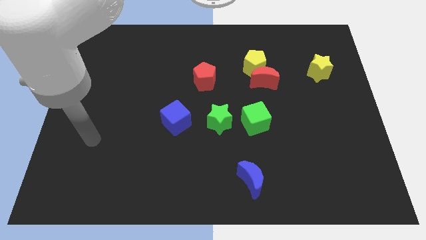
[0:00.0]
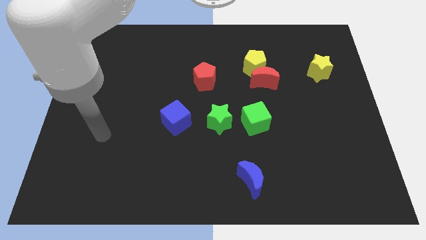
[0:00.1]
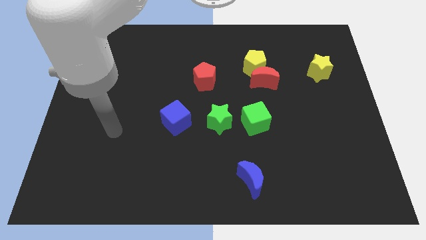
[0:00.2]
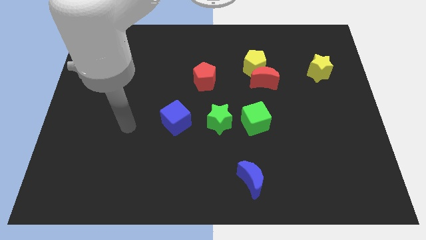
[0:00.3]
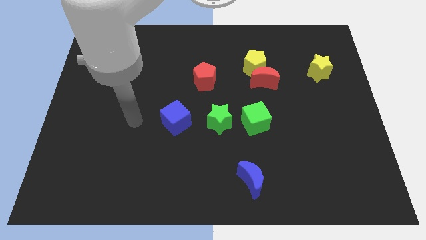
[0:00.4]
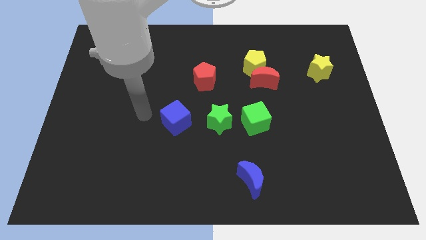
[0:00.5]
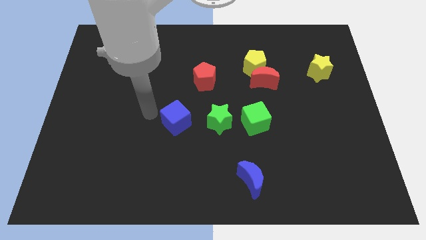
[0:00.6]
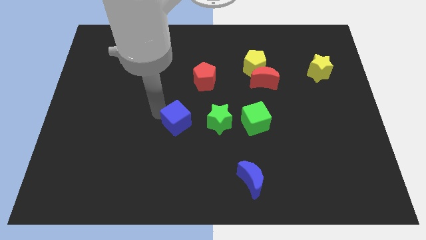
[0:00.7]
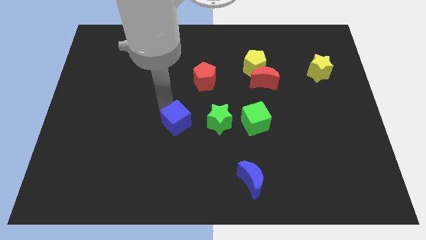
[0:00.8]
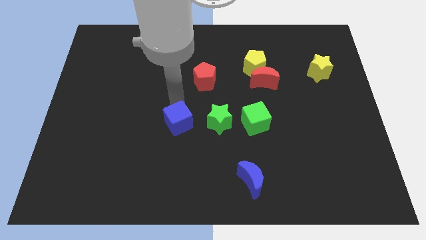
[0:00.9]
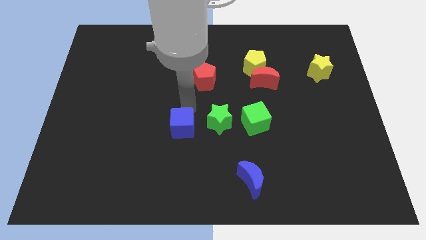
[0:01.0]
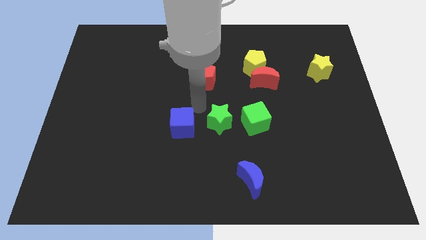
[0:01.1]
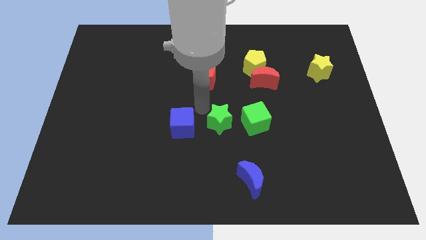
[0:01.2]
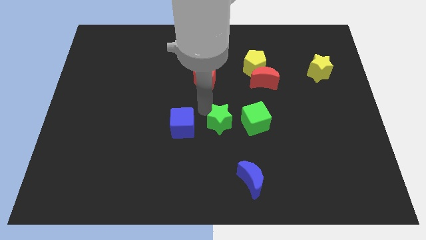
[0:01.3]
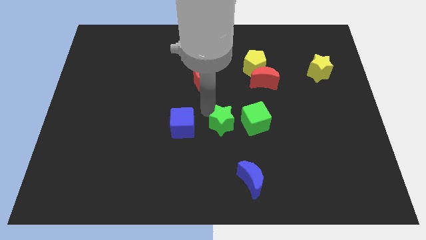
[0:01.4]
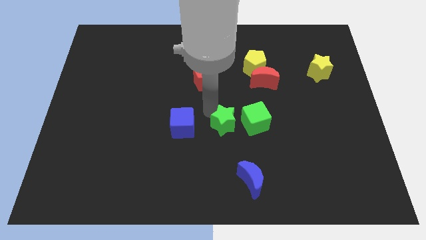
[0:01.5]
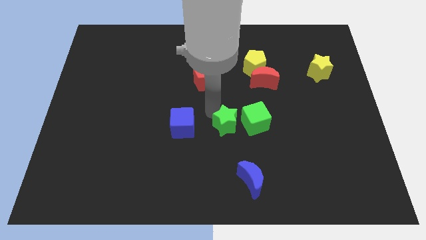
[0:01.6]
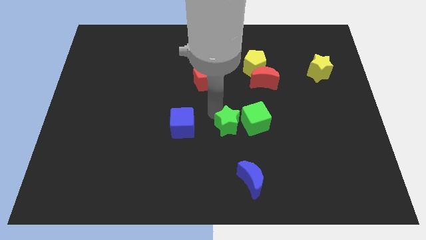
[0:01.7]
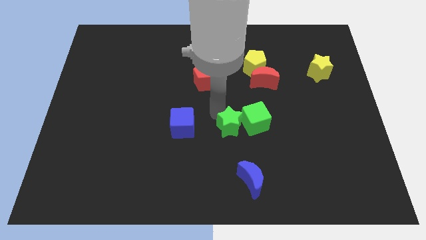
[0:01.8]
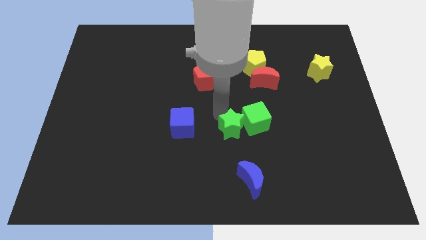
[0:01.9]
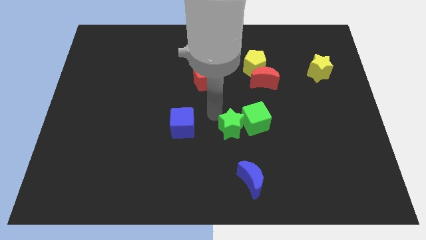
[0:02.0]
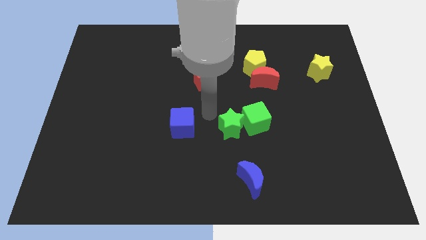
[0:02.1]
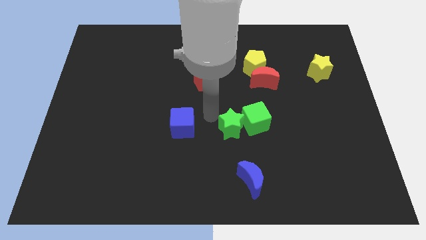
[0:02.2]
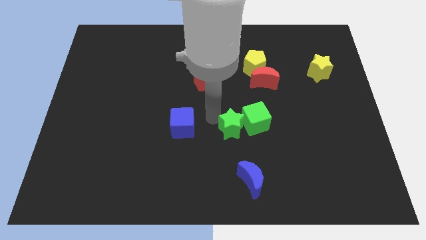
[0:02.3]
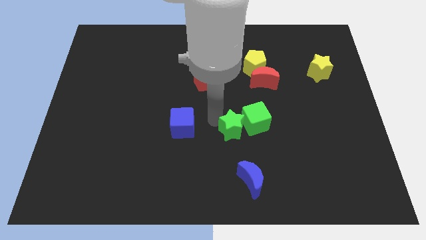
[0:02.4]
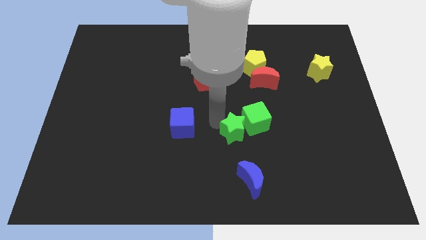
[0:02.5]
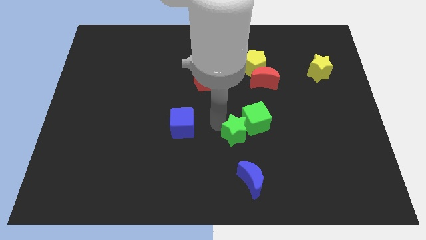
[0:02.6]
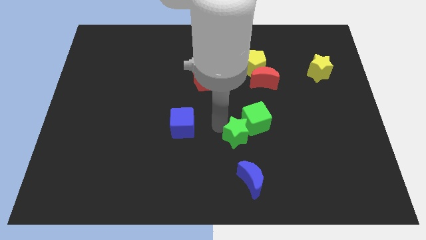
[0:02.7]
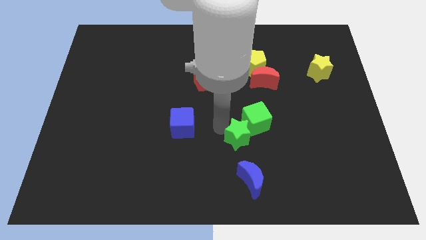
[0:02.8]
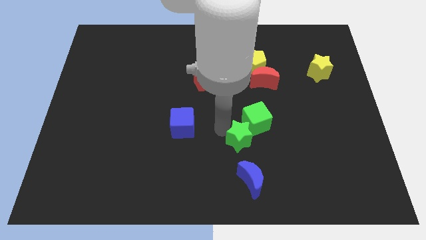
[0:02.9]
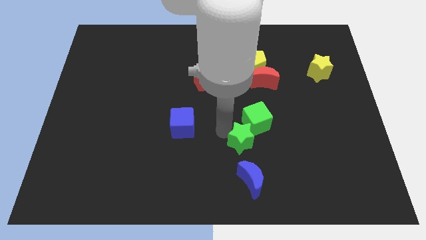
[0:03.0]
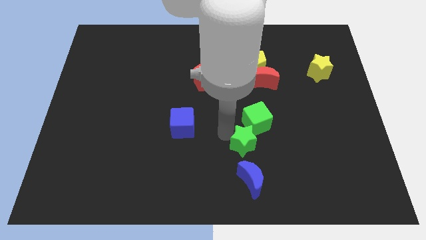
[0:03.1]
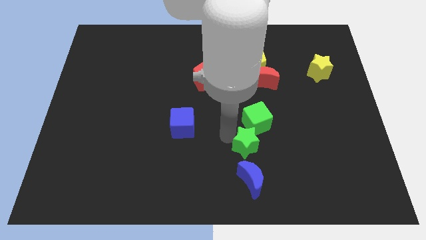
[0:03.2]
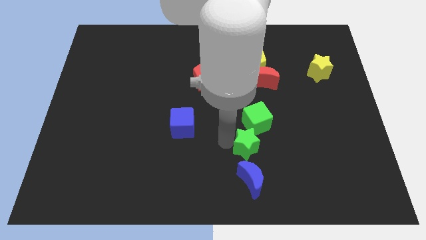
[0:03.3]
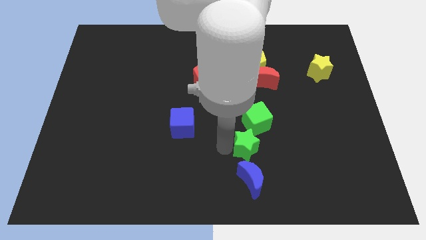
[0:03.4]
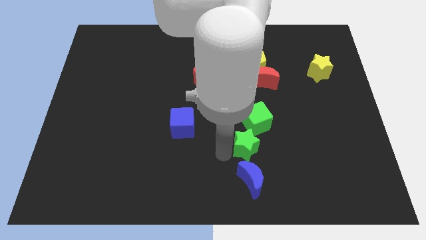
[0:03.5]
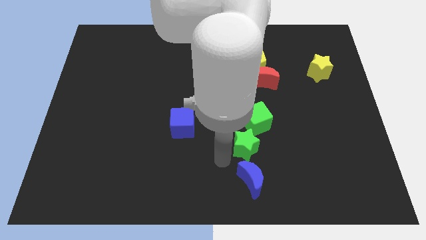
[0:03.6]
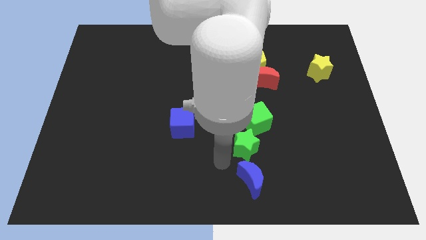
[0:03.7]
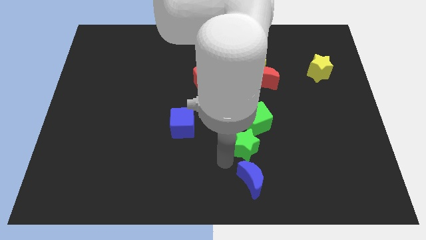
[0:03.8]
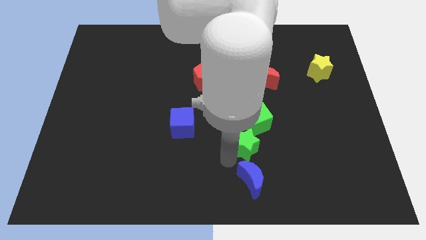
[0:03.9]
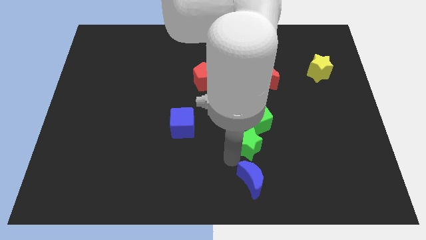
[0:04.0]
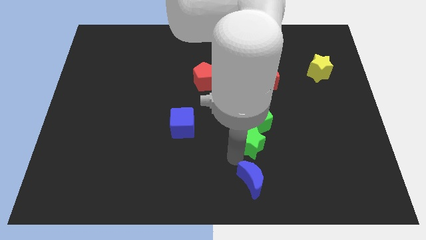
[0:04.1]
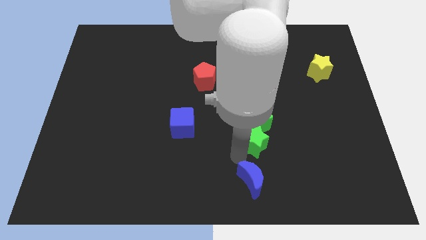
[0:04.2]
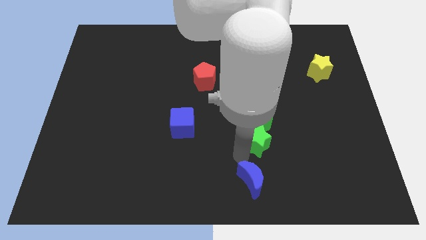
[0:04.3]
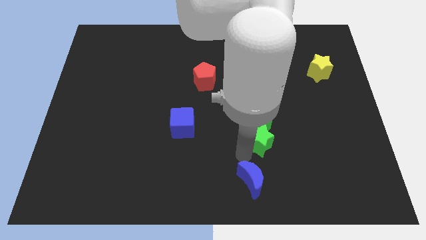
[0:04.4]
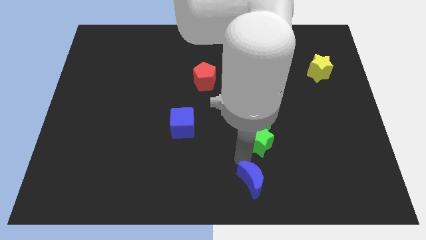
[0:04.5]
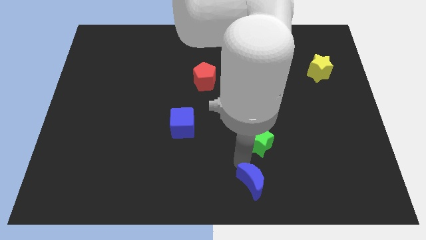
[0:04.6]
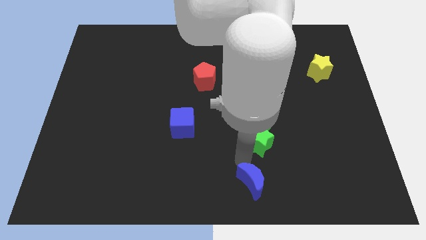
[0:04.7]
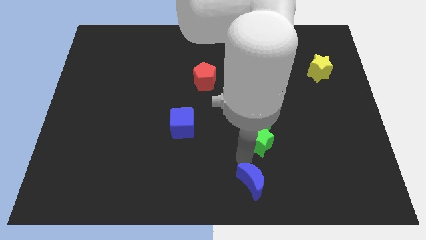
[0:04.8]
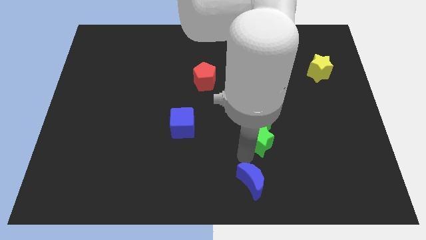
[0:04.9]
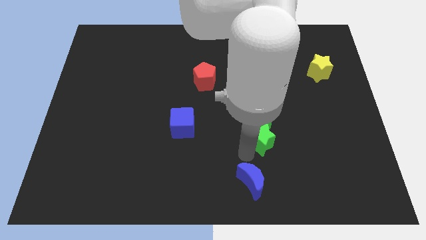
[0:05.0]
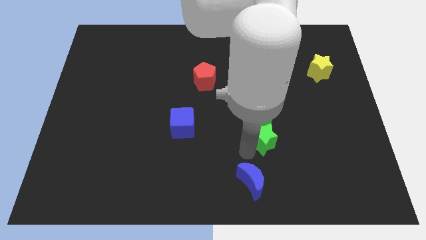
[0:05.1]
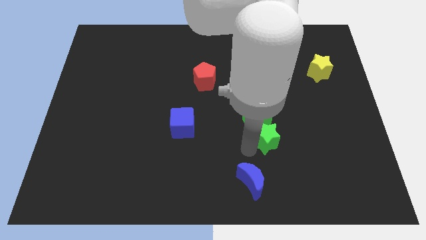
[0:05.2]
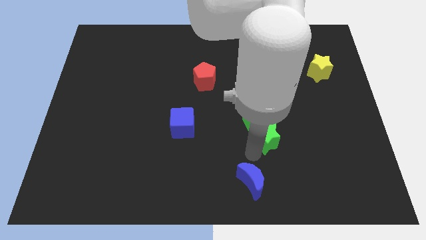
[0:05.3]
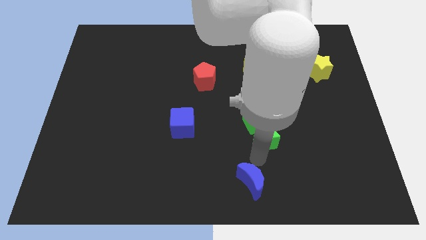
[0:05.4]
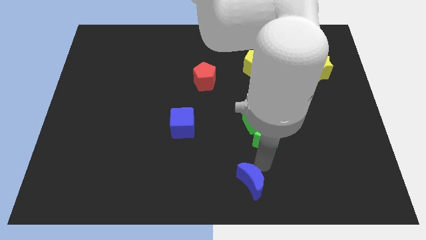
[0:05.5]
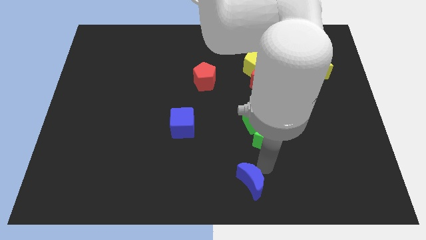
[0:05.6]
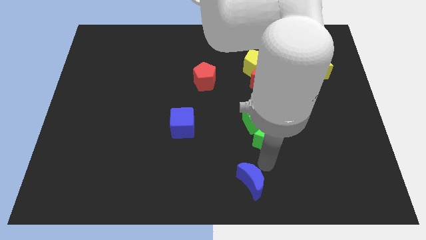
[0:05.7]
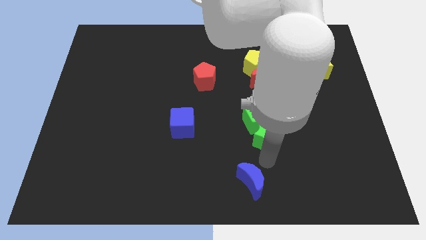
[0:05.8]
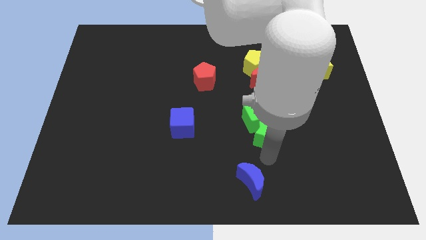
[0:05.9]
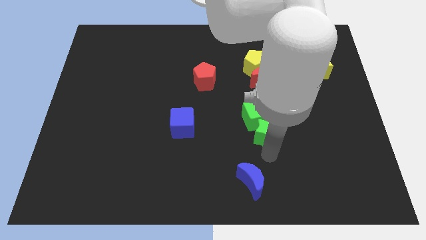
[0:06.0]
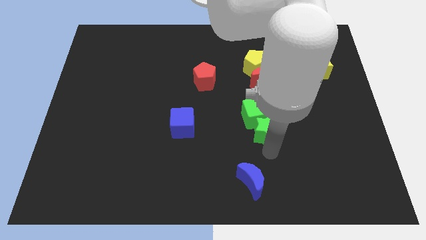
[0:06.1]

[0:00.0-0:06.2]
push the green star to the bottom of the red moon

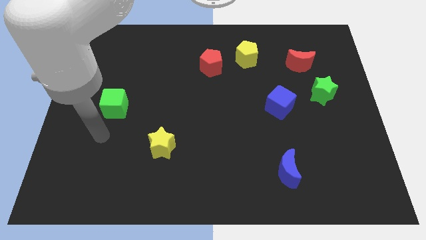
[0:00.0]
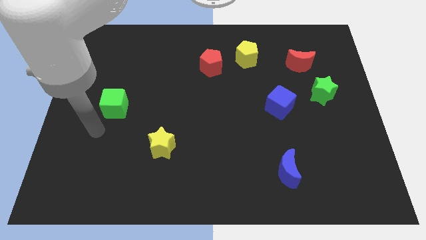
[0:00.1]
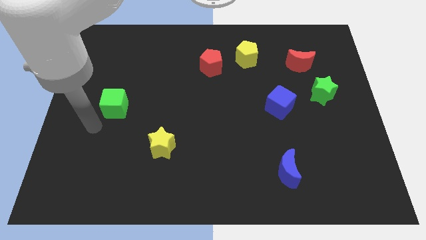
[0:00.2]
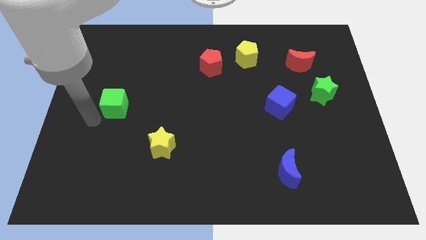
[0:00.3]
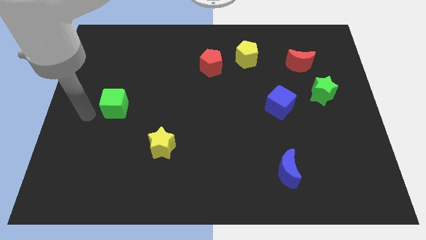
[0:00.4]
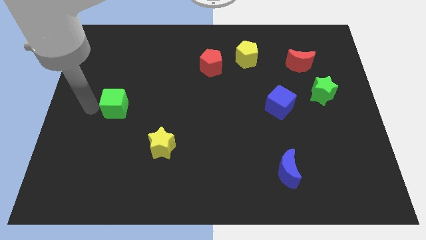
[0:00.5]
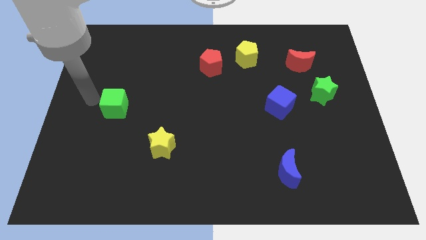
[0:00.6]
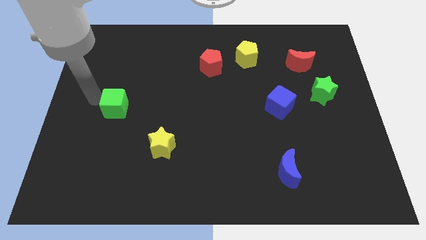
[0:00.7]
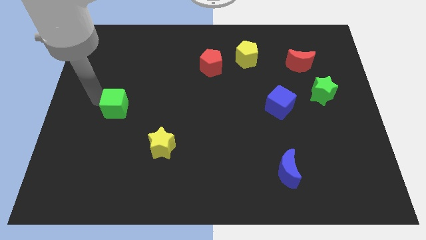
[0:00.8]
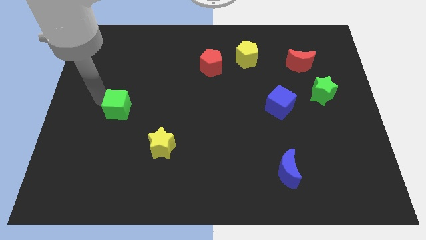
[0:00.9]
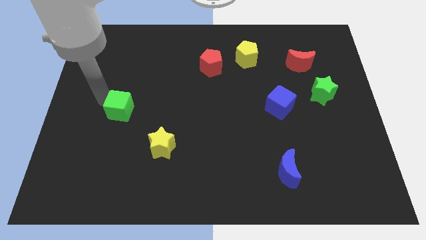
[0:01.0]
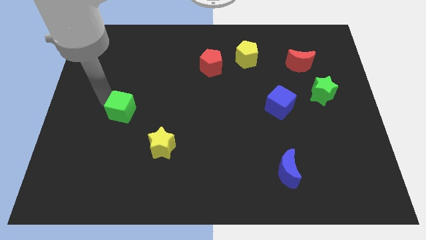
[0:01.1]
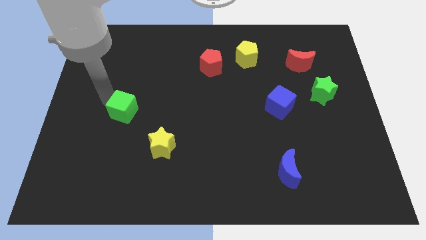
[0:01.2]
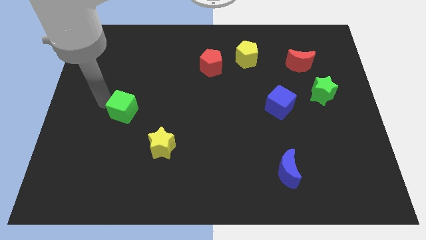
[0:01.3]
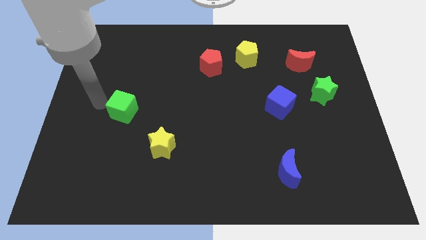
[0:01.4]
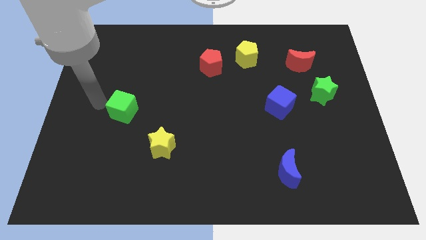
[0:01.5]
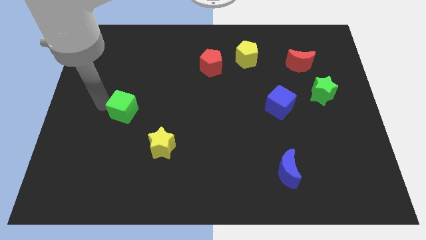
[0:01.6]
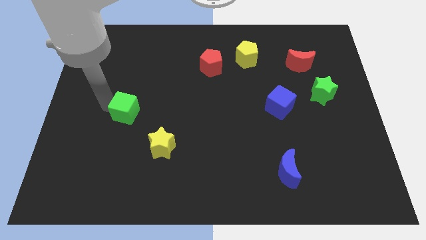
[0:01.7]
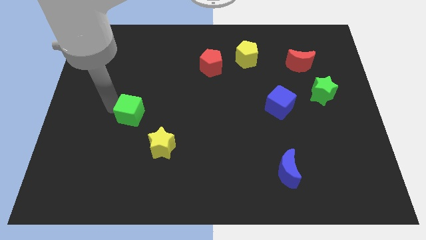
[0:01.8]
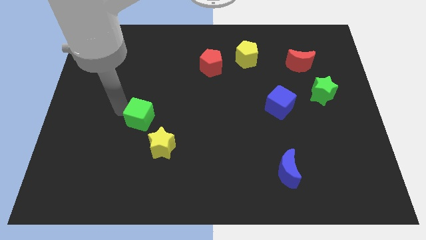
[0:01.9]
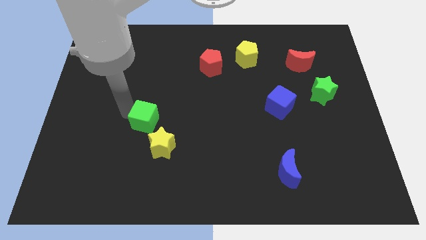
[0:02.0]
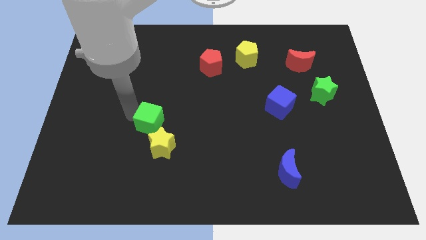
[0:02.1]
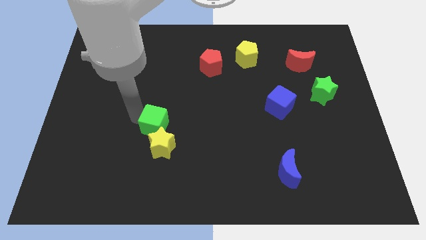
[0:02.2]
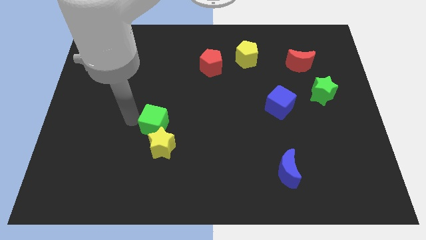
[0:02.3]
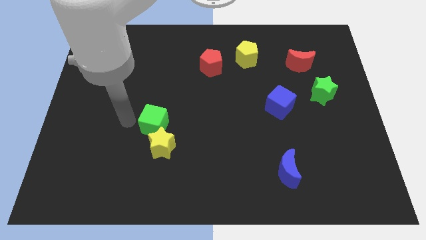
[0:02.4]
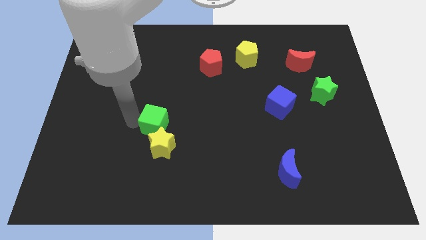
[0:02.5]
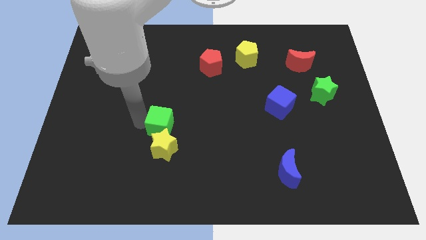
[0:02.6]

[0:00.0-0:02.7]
put the green cube to the top right of the yellow star
